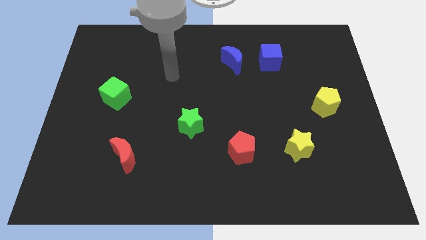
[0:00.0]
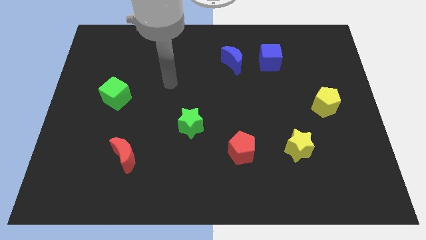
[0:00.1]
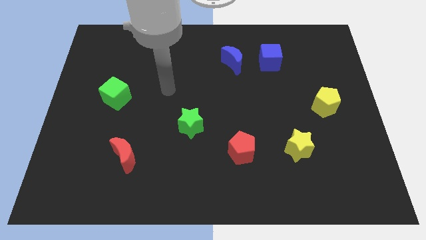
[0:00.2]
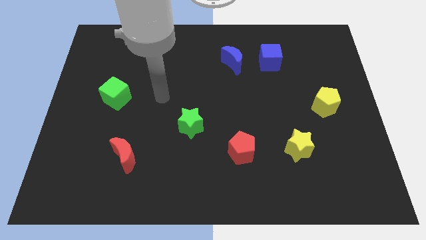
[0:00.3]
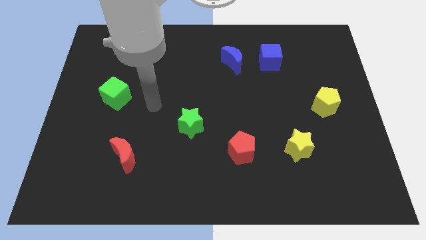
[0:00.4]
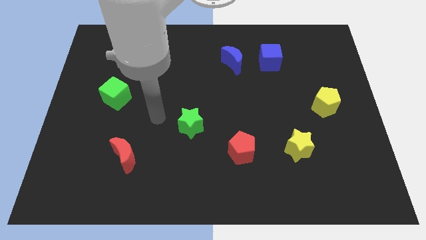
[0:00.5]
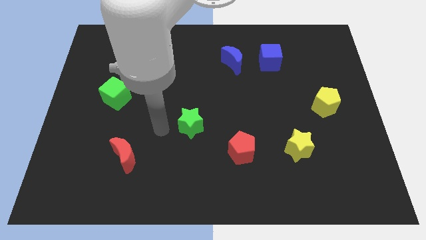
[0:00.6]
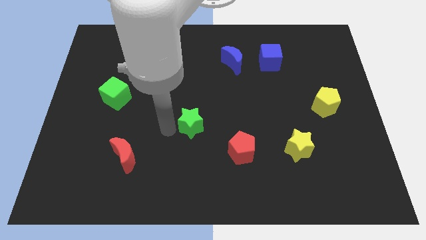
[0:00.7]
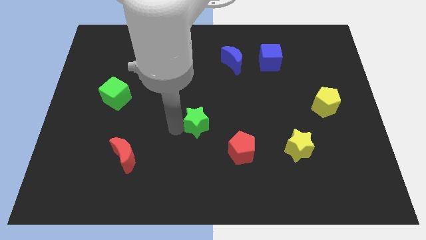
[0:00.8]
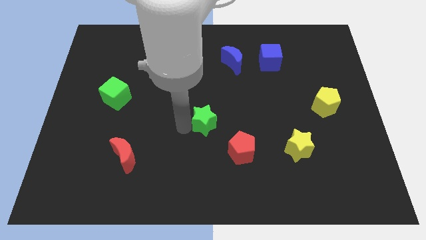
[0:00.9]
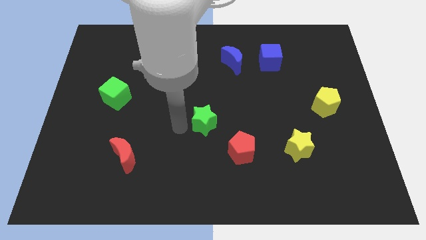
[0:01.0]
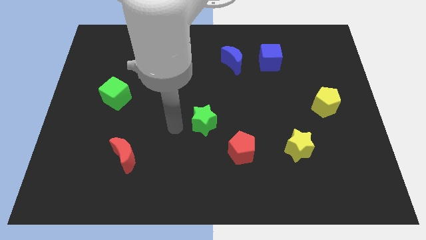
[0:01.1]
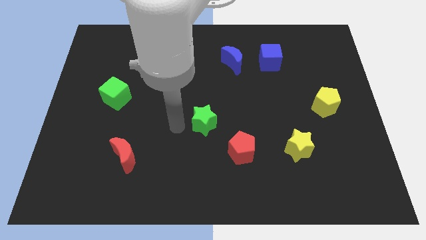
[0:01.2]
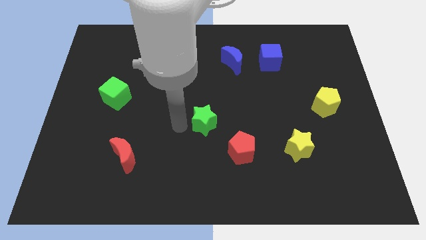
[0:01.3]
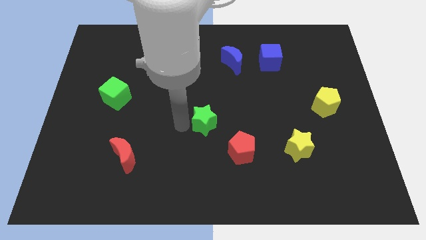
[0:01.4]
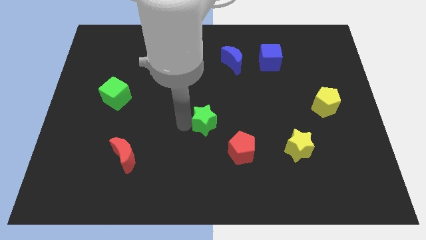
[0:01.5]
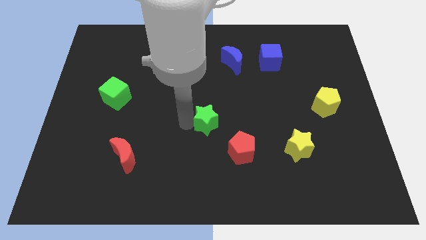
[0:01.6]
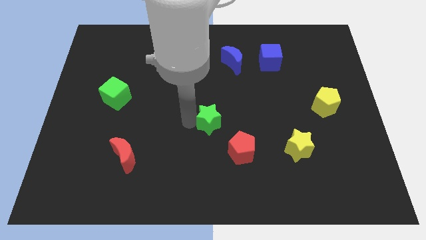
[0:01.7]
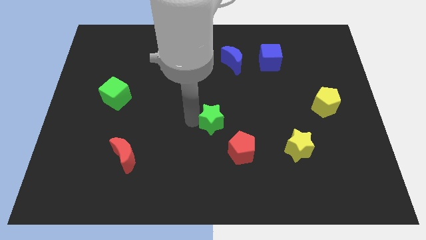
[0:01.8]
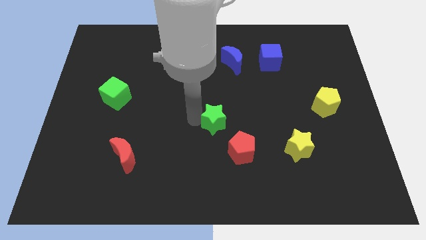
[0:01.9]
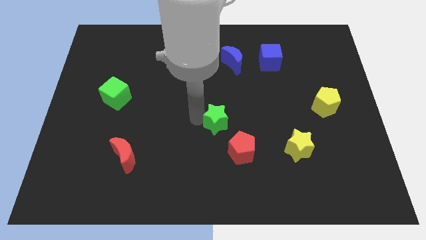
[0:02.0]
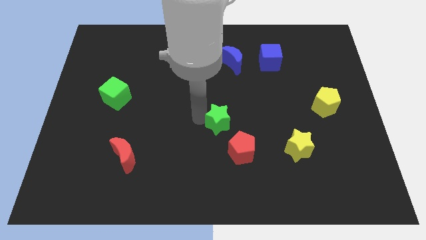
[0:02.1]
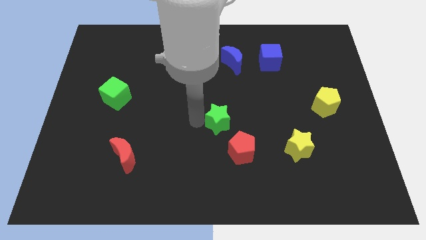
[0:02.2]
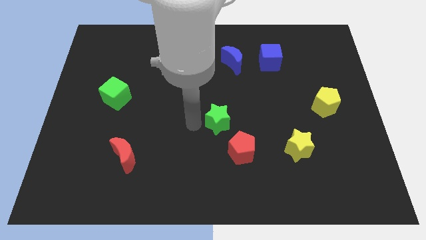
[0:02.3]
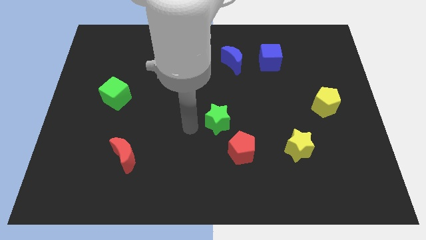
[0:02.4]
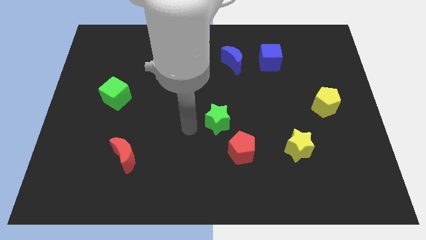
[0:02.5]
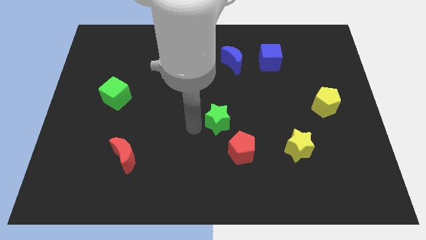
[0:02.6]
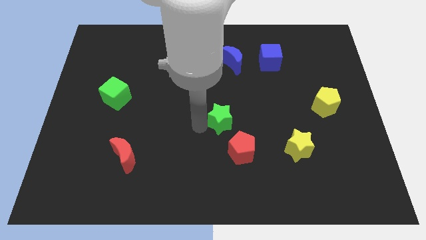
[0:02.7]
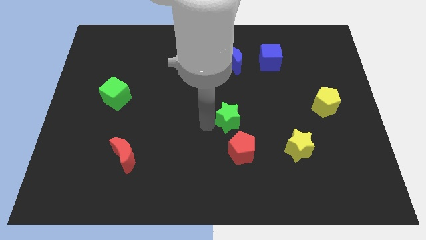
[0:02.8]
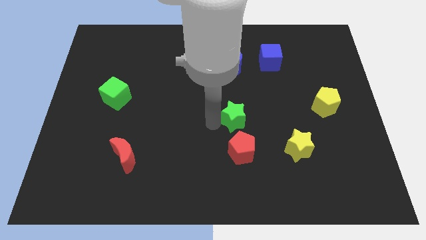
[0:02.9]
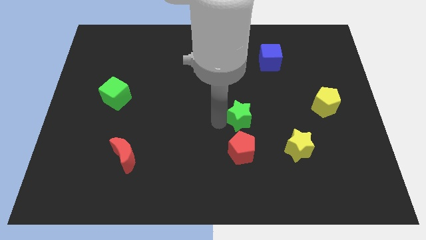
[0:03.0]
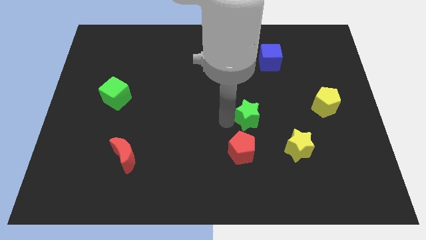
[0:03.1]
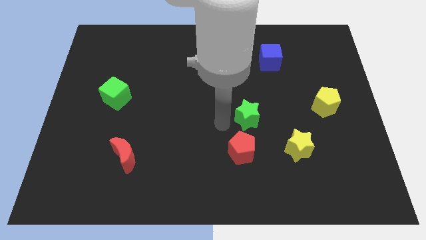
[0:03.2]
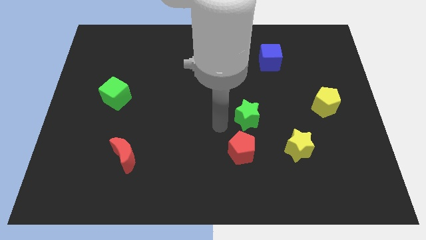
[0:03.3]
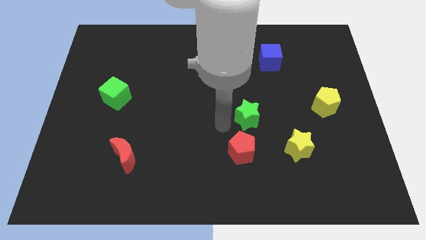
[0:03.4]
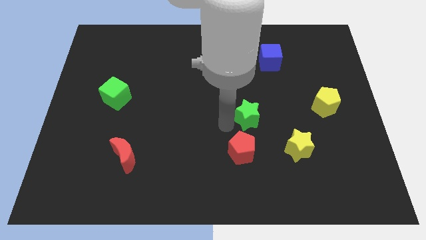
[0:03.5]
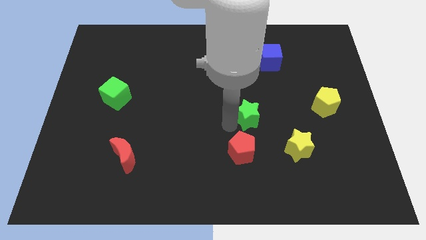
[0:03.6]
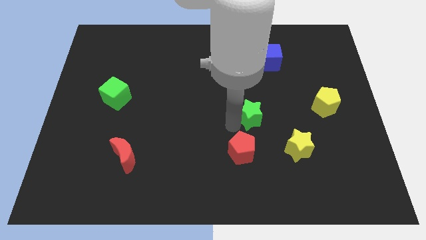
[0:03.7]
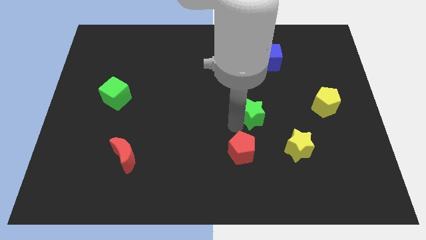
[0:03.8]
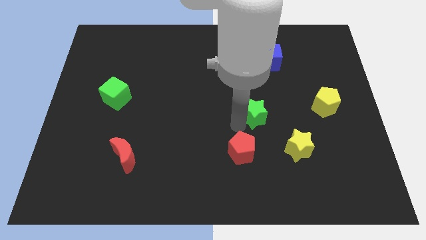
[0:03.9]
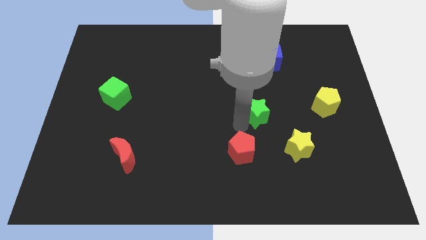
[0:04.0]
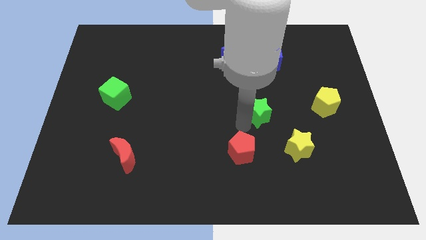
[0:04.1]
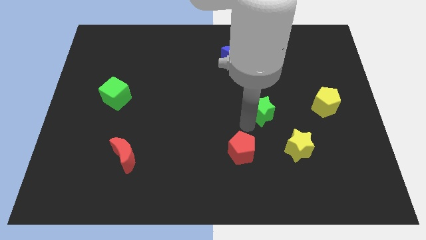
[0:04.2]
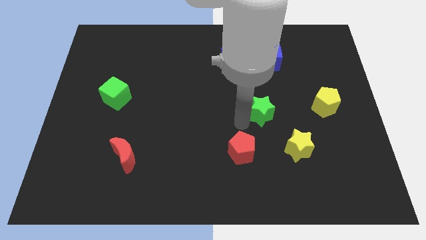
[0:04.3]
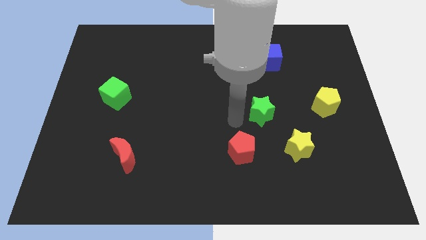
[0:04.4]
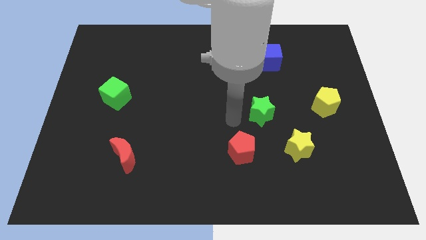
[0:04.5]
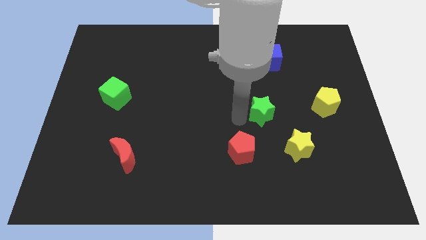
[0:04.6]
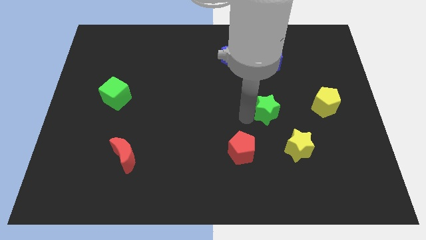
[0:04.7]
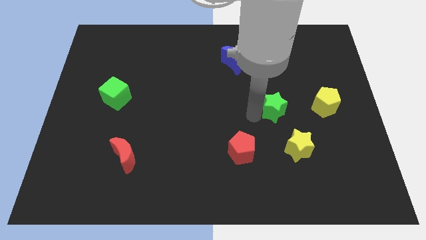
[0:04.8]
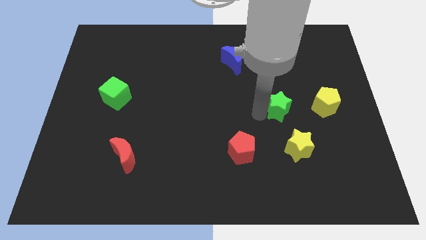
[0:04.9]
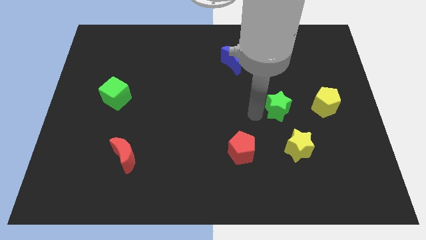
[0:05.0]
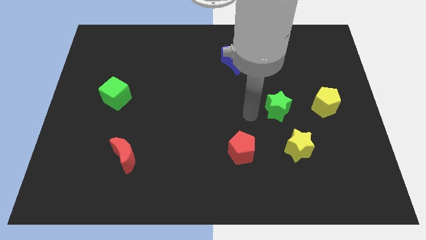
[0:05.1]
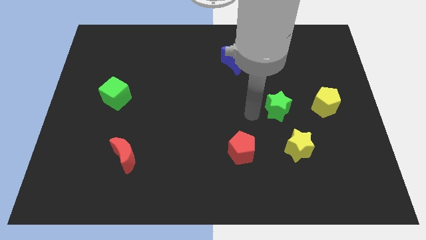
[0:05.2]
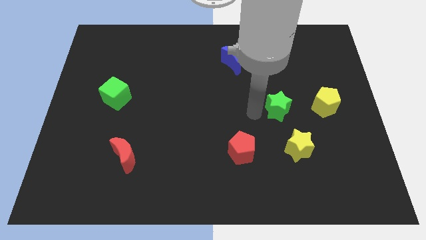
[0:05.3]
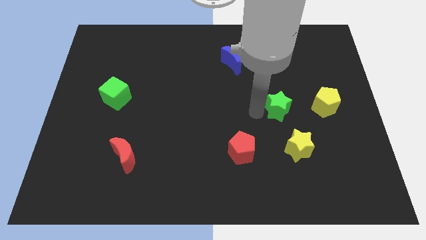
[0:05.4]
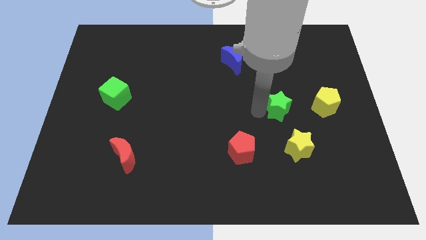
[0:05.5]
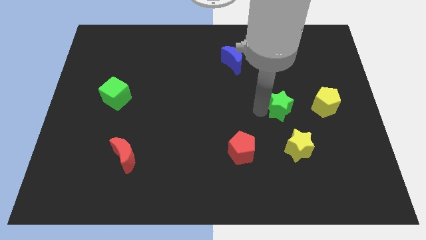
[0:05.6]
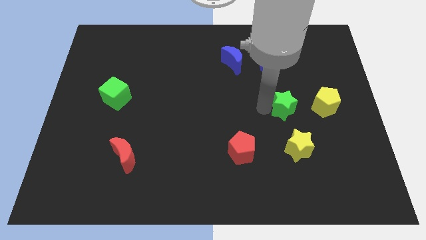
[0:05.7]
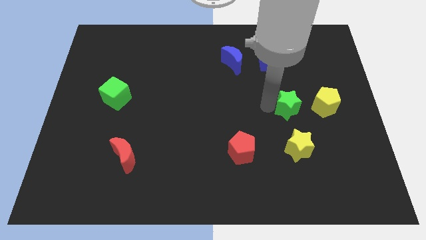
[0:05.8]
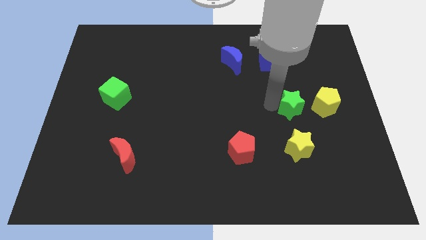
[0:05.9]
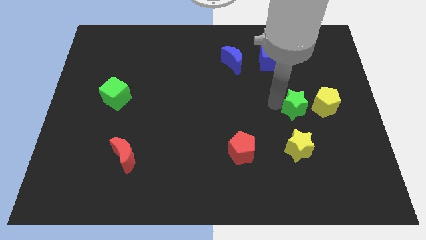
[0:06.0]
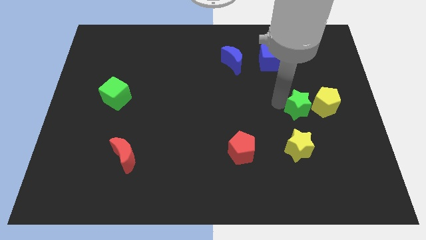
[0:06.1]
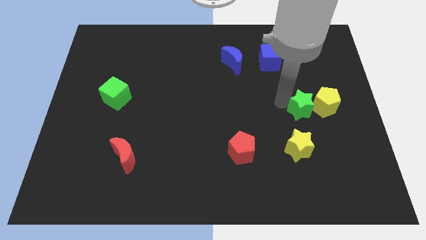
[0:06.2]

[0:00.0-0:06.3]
slide the green star to the yellow pentagon

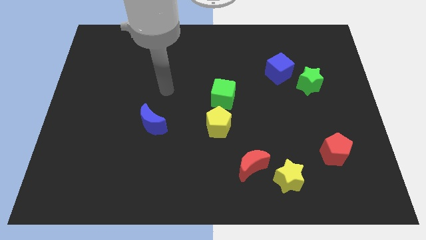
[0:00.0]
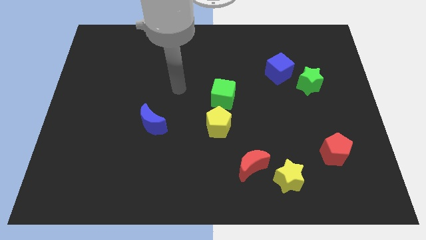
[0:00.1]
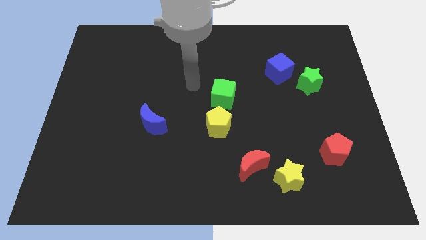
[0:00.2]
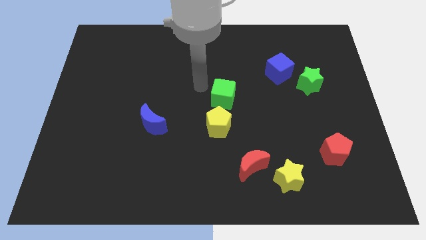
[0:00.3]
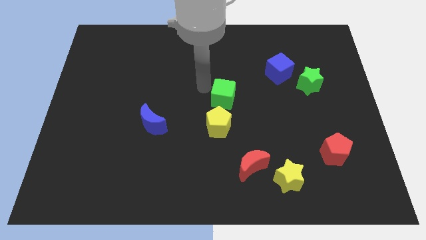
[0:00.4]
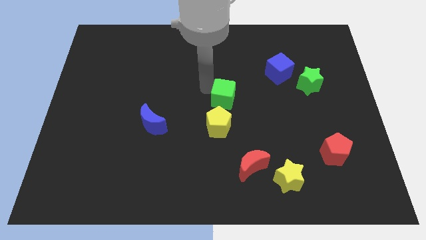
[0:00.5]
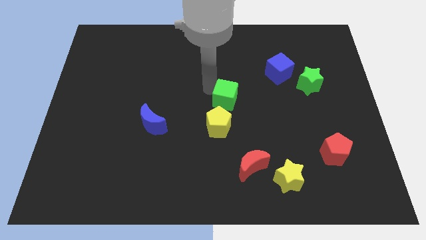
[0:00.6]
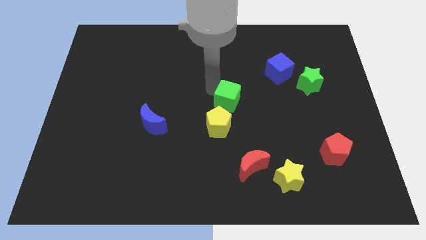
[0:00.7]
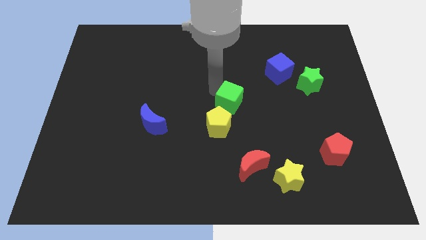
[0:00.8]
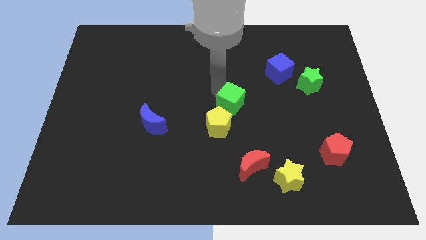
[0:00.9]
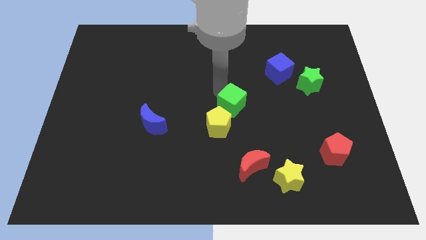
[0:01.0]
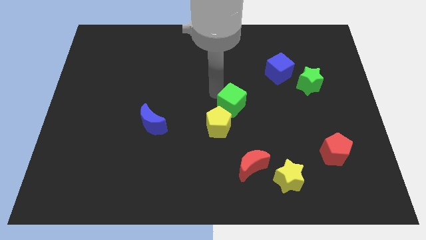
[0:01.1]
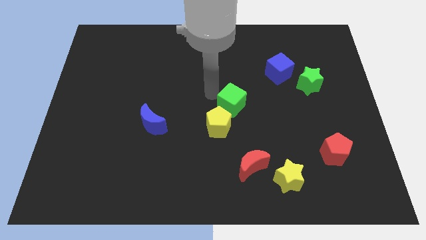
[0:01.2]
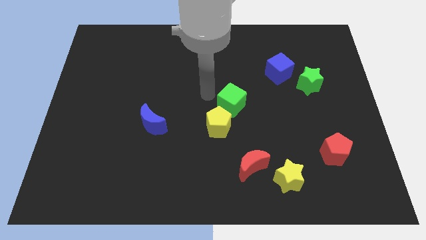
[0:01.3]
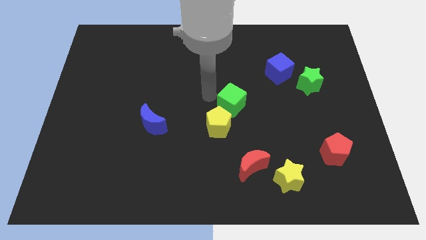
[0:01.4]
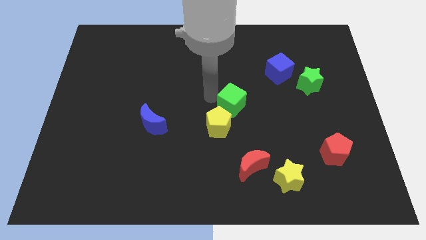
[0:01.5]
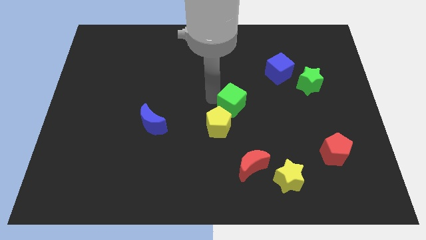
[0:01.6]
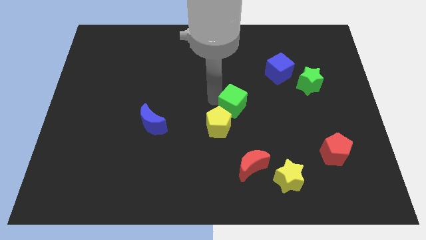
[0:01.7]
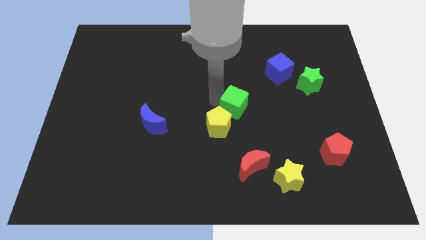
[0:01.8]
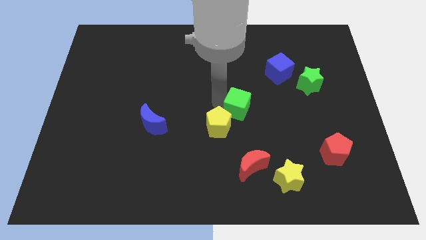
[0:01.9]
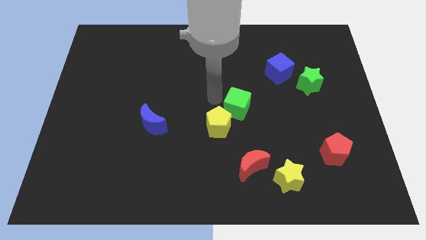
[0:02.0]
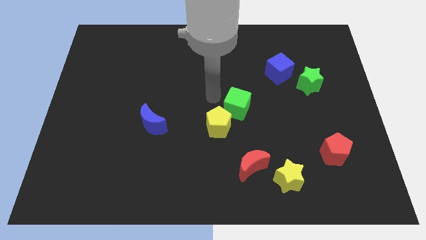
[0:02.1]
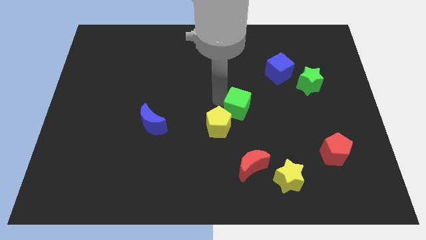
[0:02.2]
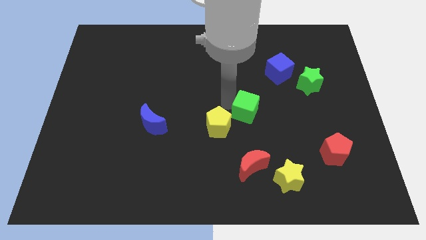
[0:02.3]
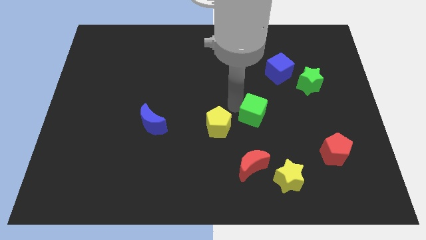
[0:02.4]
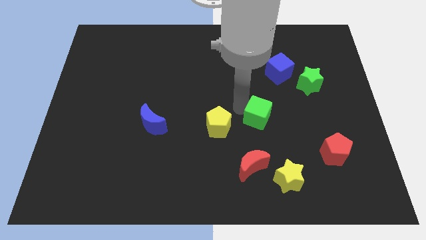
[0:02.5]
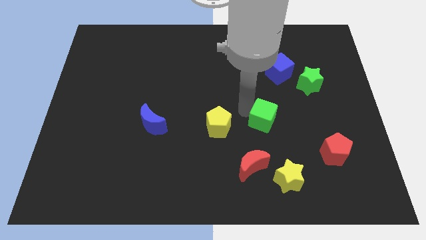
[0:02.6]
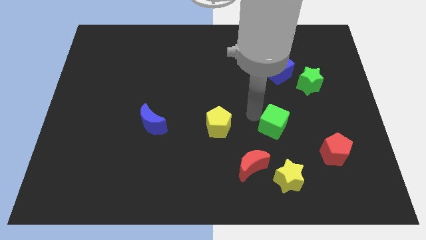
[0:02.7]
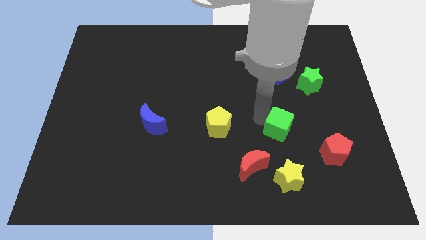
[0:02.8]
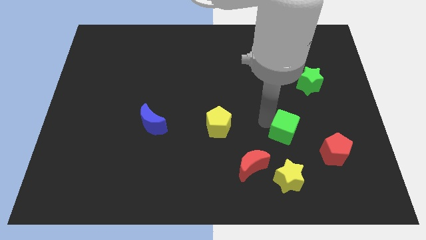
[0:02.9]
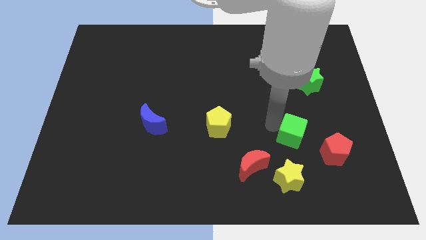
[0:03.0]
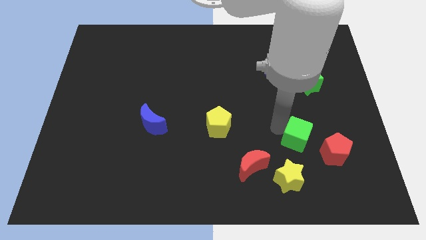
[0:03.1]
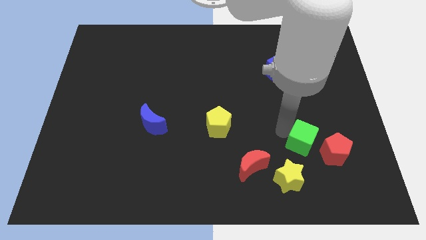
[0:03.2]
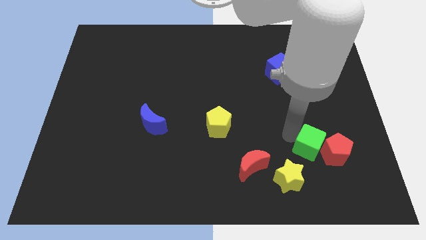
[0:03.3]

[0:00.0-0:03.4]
put the green cube towards the red pentagon
